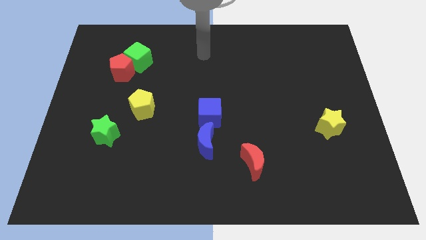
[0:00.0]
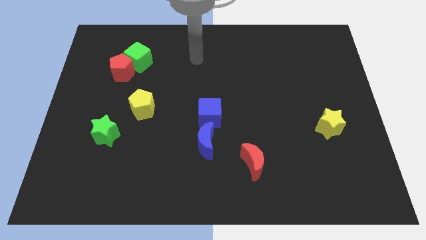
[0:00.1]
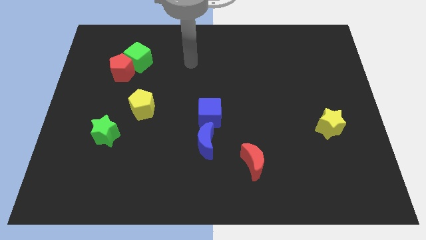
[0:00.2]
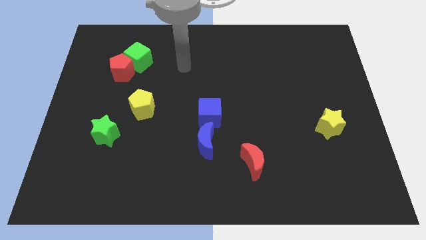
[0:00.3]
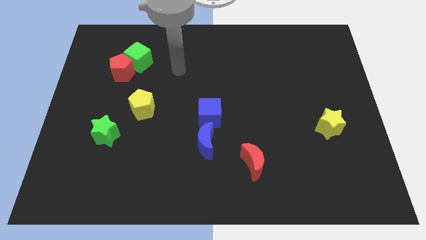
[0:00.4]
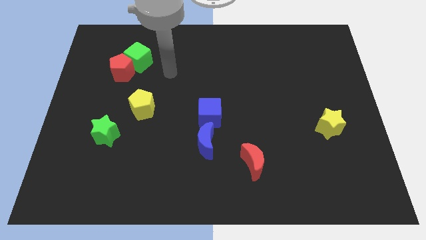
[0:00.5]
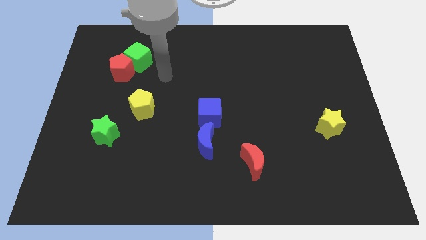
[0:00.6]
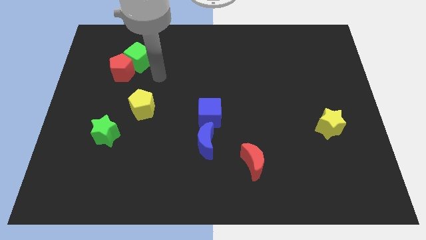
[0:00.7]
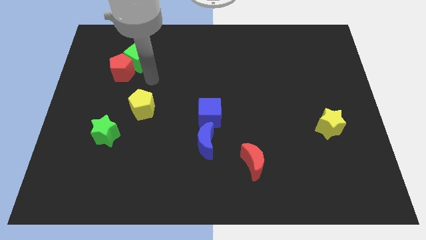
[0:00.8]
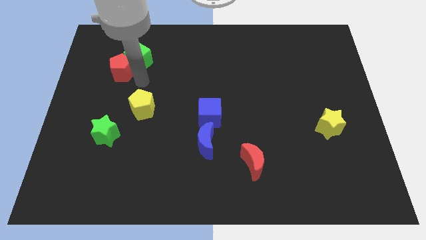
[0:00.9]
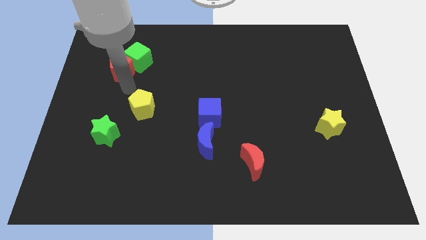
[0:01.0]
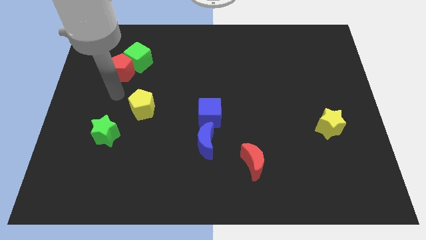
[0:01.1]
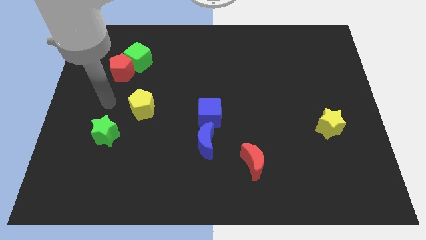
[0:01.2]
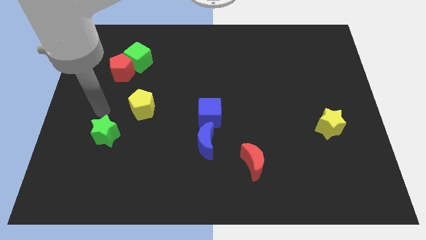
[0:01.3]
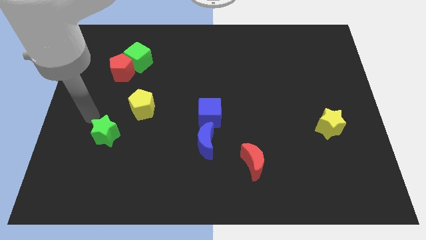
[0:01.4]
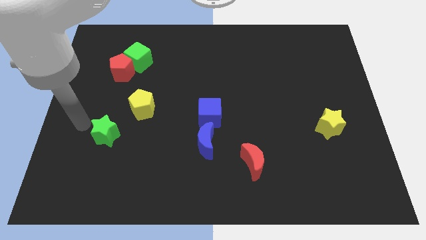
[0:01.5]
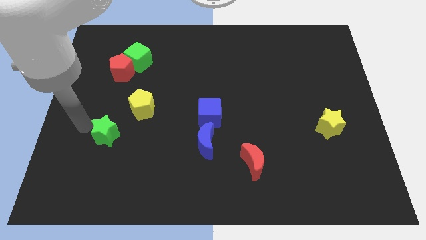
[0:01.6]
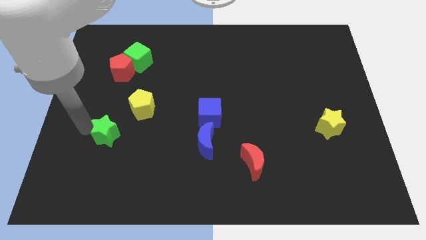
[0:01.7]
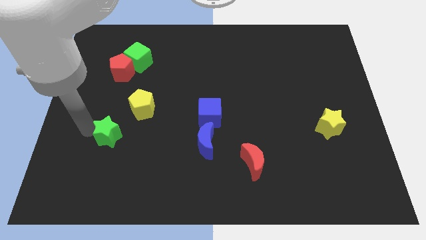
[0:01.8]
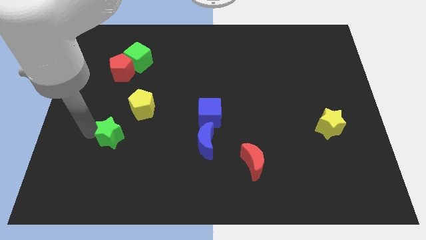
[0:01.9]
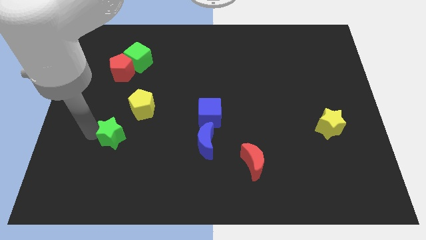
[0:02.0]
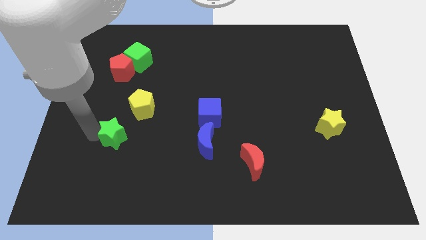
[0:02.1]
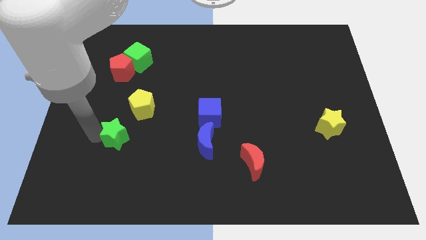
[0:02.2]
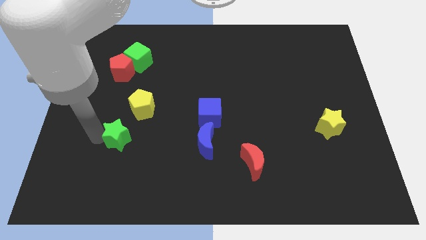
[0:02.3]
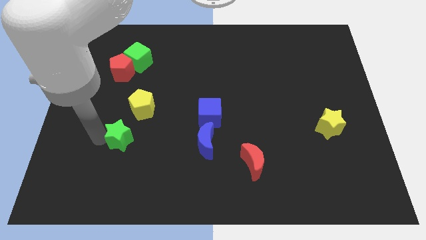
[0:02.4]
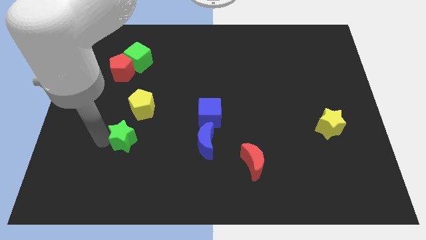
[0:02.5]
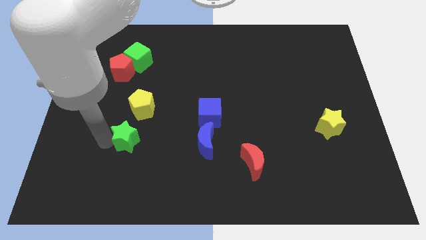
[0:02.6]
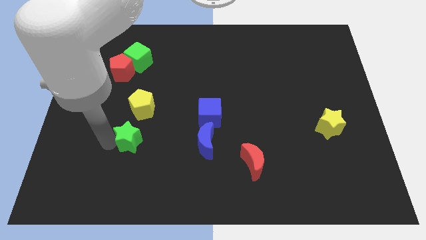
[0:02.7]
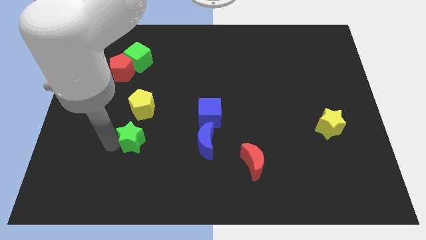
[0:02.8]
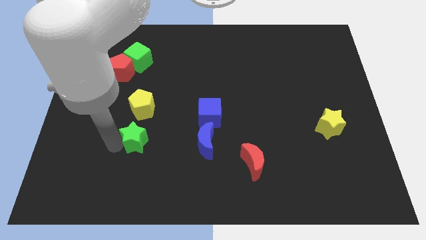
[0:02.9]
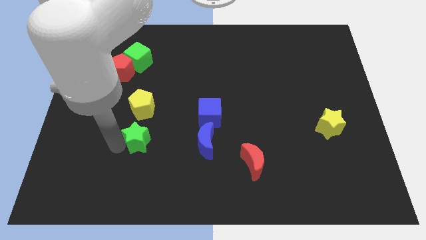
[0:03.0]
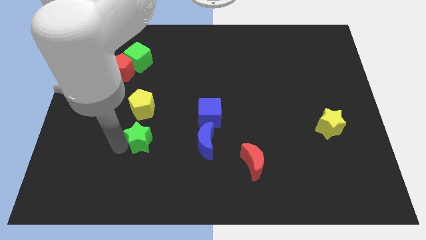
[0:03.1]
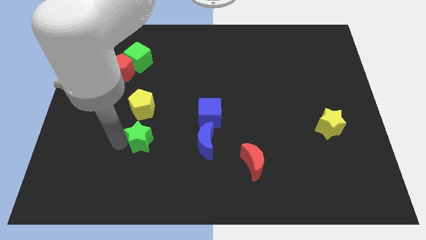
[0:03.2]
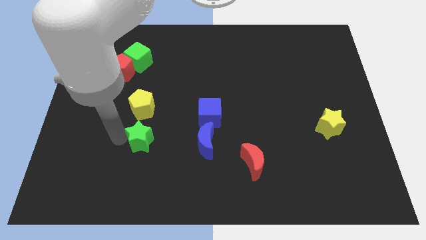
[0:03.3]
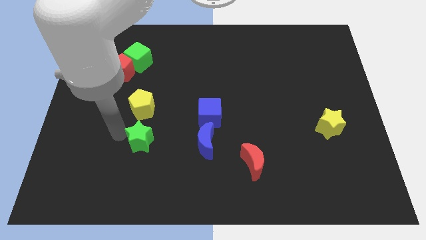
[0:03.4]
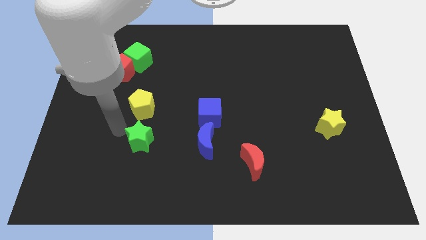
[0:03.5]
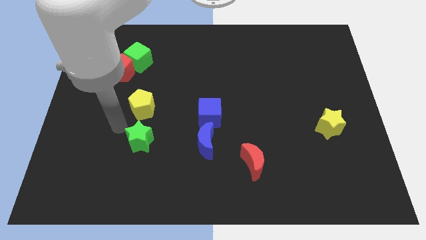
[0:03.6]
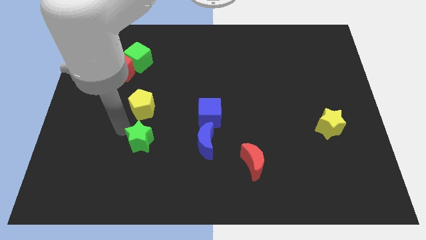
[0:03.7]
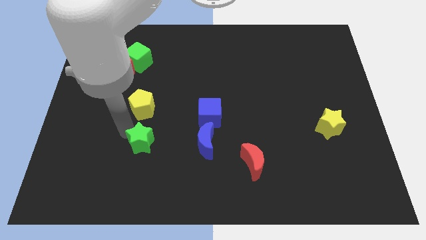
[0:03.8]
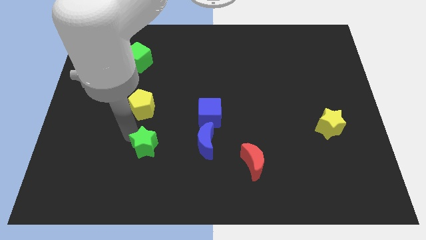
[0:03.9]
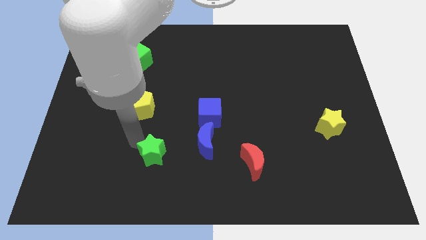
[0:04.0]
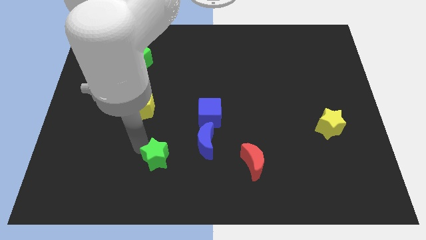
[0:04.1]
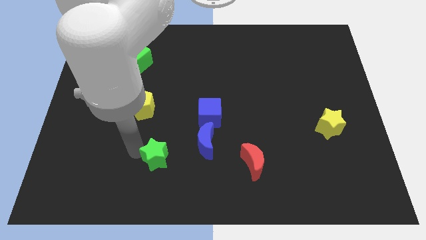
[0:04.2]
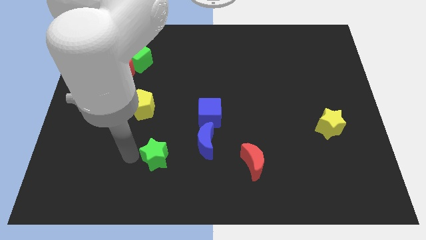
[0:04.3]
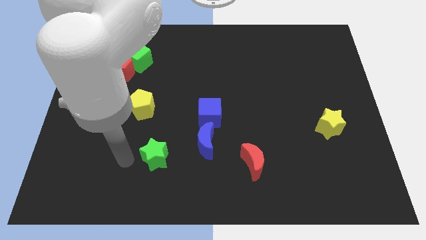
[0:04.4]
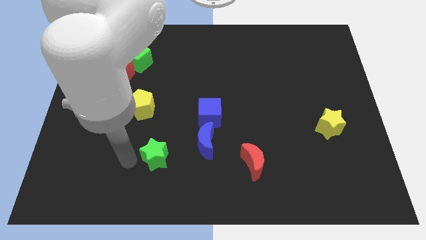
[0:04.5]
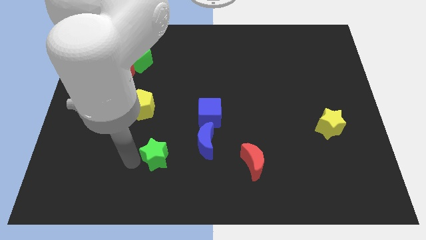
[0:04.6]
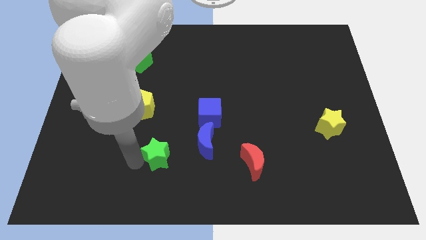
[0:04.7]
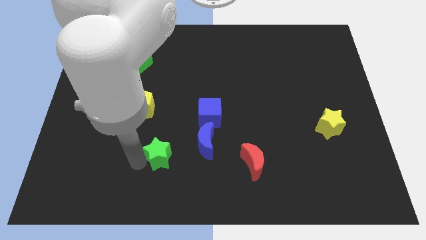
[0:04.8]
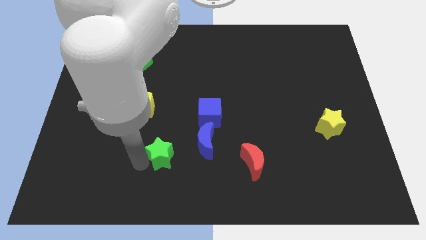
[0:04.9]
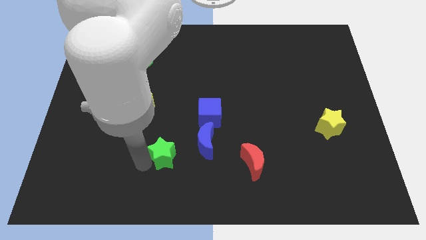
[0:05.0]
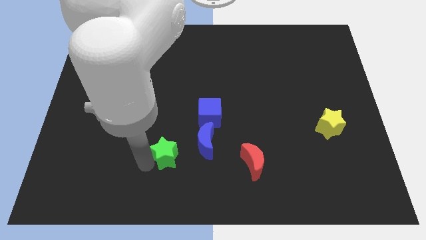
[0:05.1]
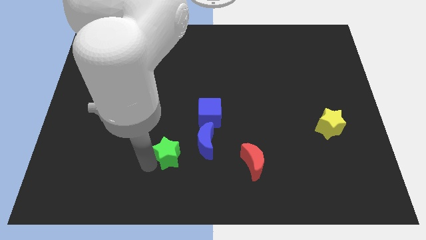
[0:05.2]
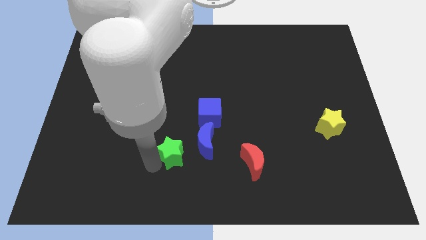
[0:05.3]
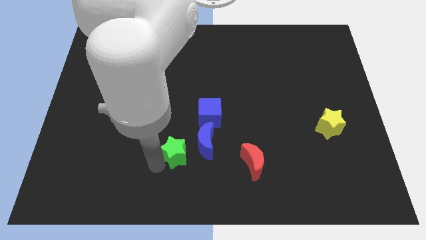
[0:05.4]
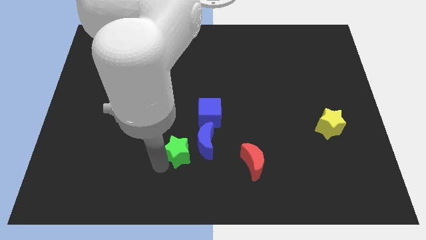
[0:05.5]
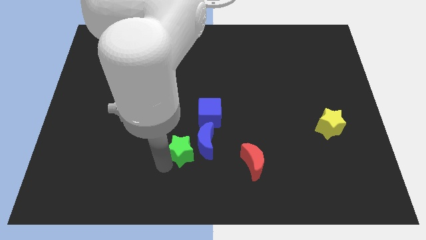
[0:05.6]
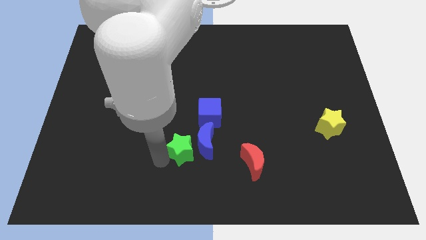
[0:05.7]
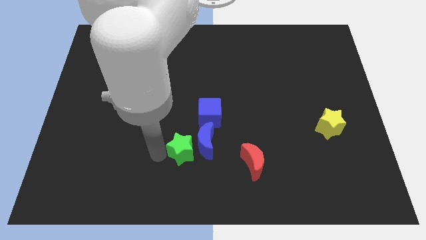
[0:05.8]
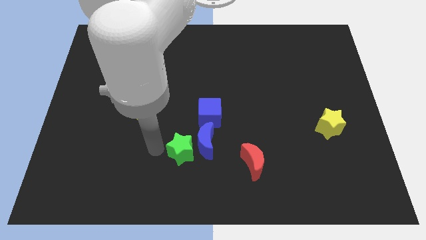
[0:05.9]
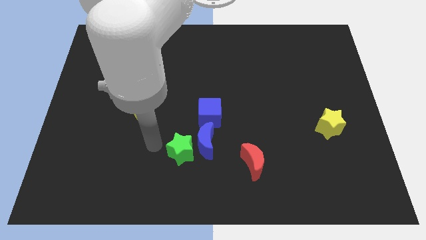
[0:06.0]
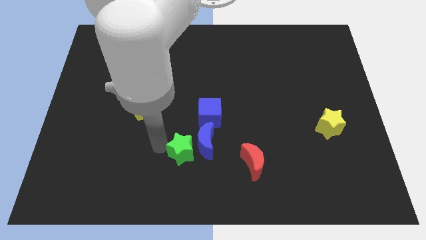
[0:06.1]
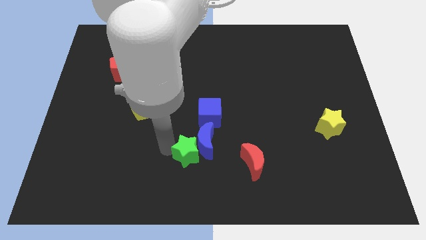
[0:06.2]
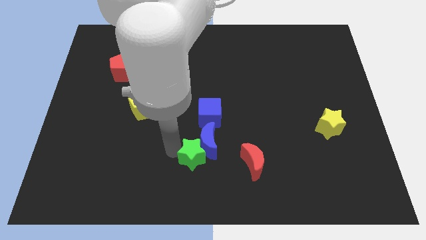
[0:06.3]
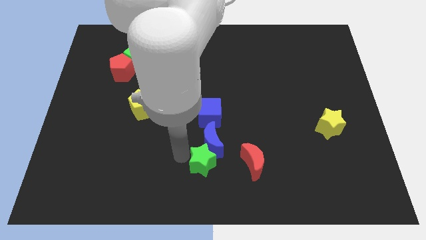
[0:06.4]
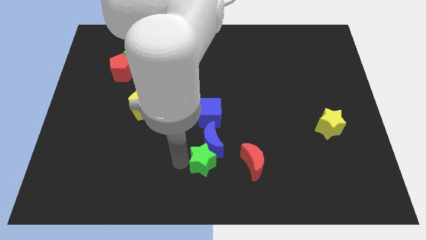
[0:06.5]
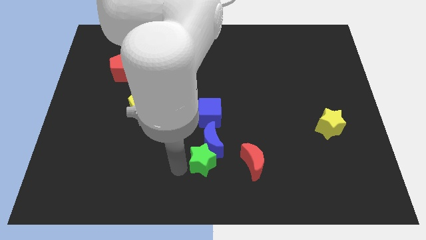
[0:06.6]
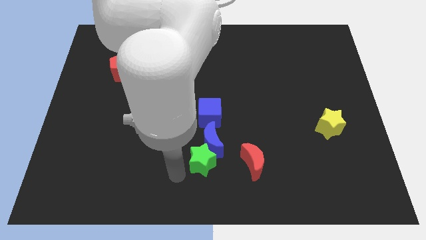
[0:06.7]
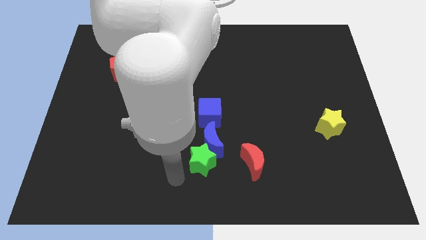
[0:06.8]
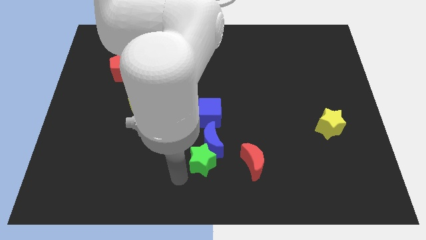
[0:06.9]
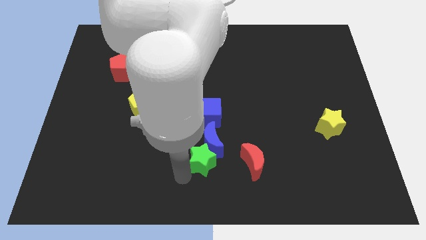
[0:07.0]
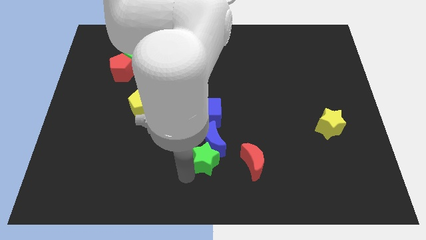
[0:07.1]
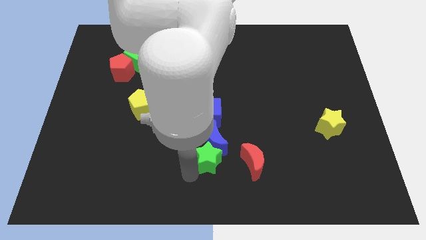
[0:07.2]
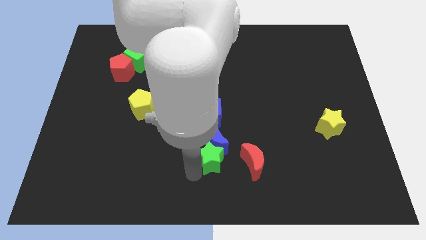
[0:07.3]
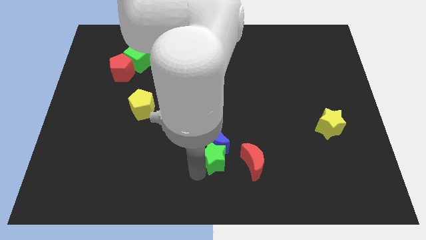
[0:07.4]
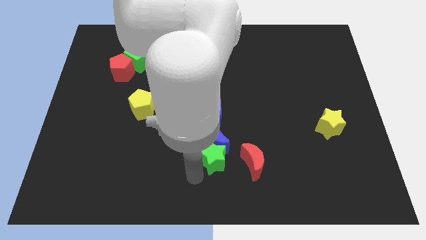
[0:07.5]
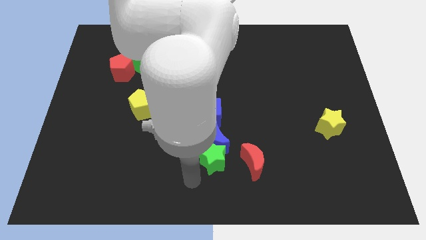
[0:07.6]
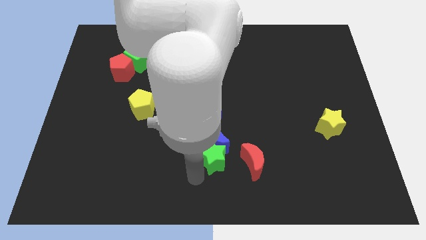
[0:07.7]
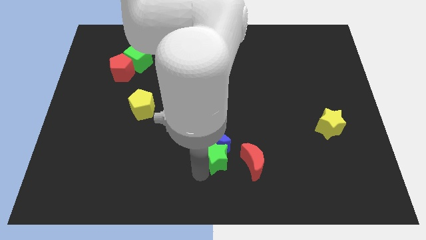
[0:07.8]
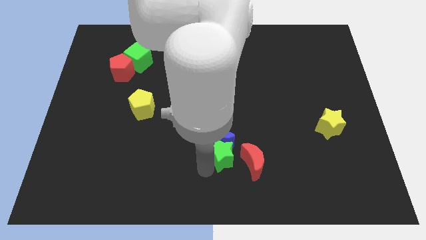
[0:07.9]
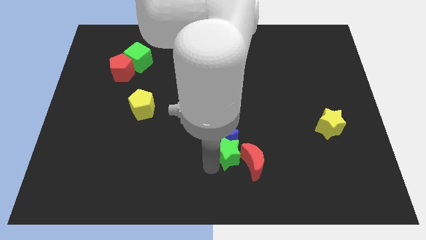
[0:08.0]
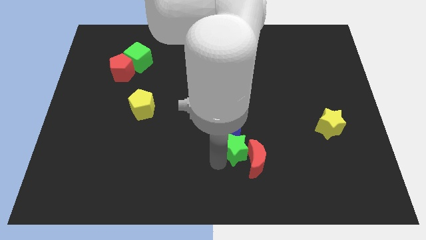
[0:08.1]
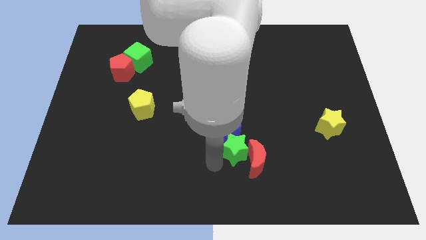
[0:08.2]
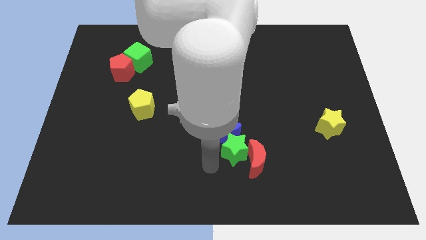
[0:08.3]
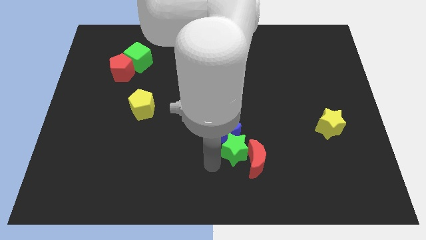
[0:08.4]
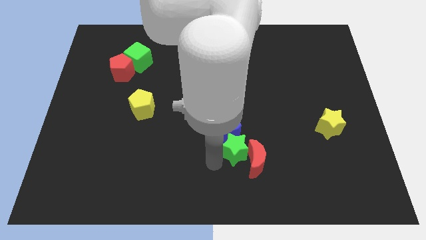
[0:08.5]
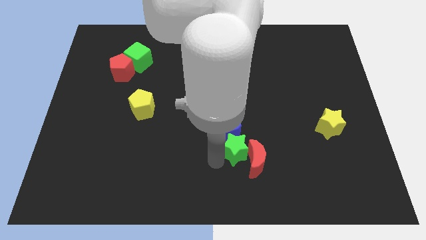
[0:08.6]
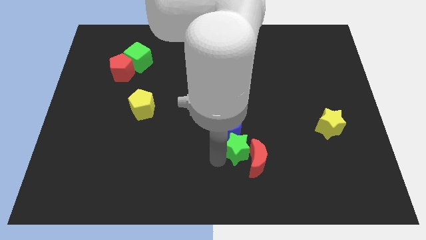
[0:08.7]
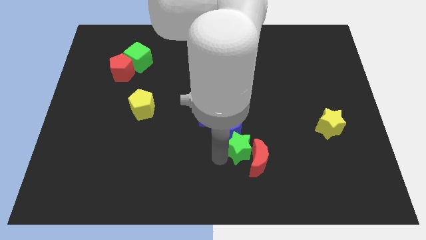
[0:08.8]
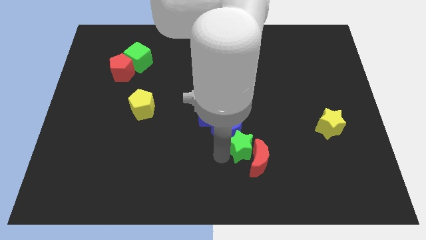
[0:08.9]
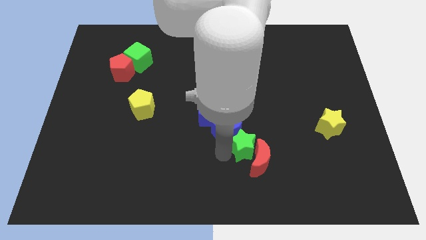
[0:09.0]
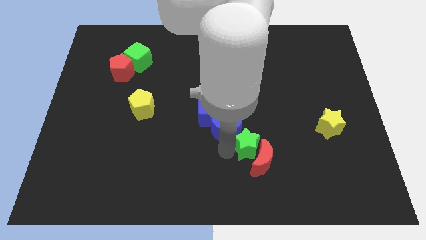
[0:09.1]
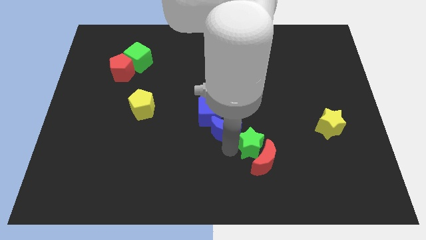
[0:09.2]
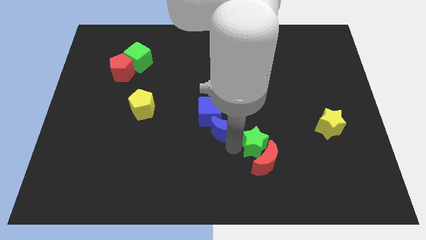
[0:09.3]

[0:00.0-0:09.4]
move the green star to the top right of the red moon
